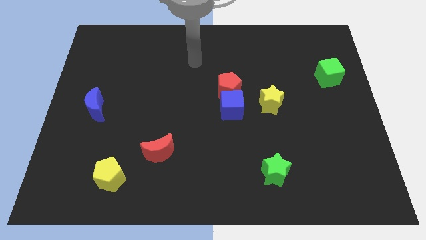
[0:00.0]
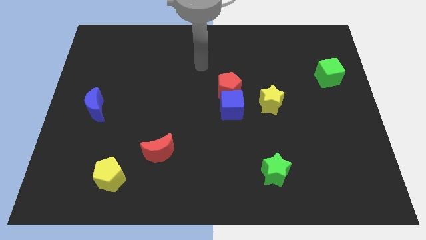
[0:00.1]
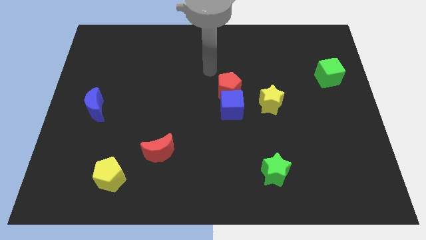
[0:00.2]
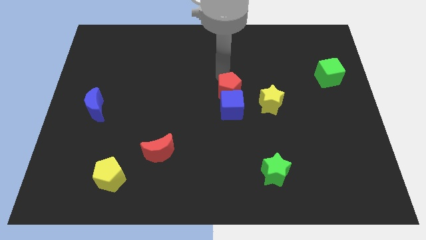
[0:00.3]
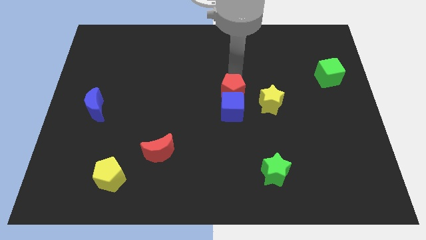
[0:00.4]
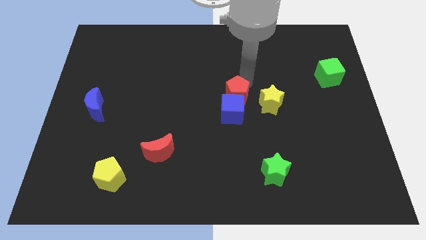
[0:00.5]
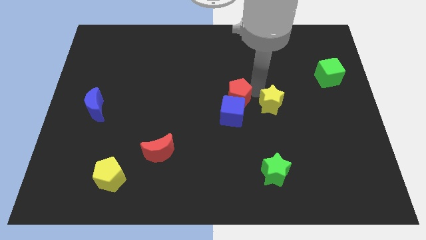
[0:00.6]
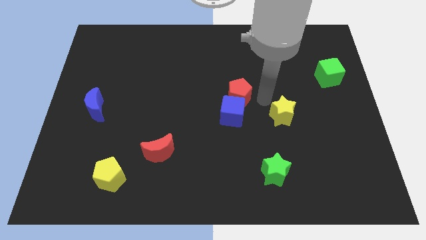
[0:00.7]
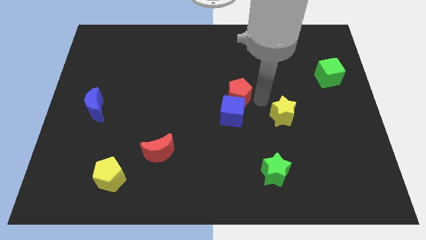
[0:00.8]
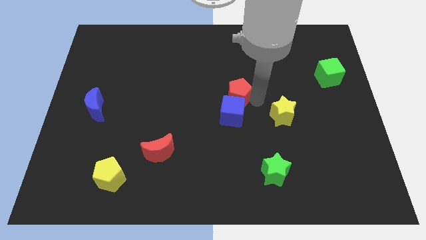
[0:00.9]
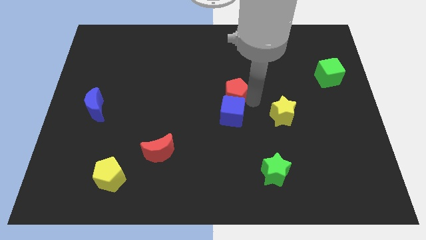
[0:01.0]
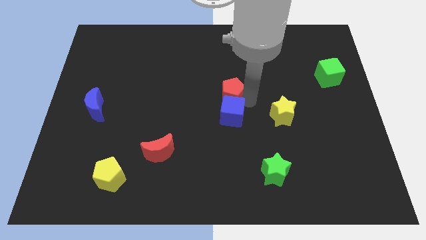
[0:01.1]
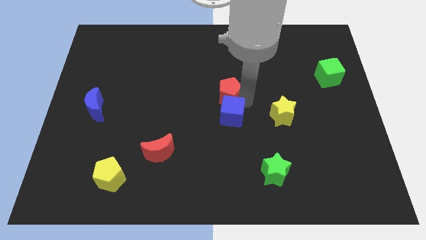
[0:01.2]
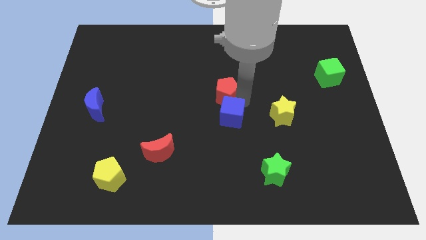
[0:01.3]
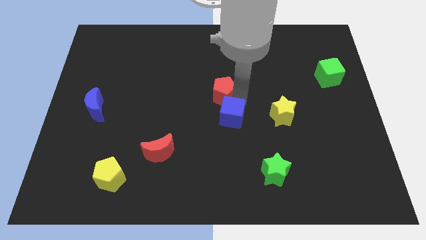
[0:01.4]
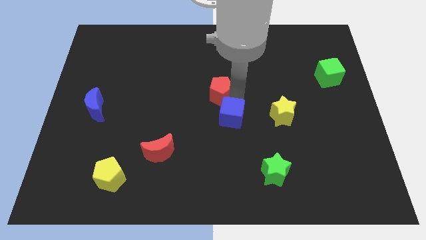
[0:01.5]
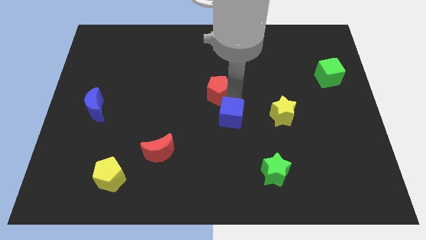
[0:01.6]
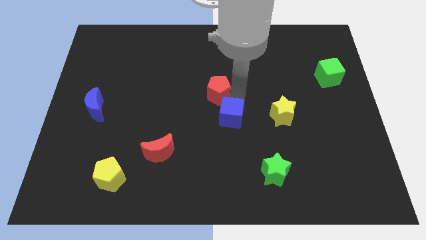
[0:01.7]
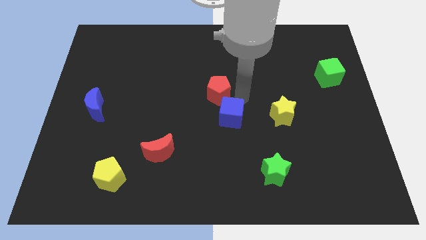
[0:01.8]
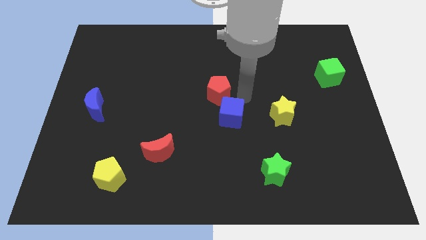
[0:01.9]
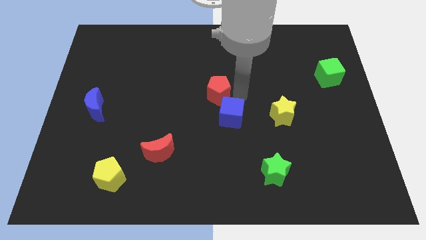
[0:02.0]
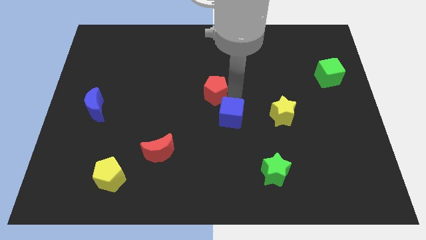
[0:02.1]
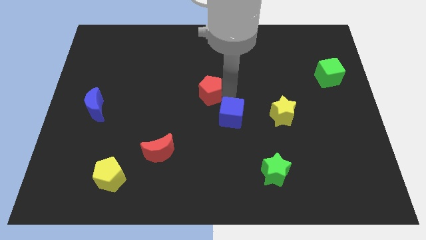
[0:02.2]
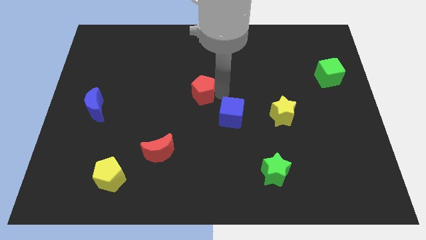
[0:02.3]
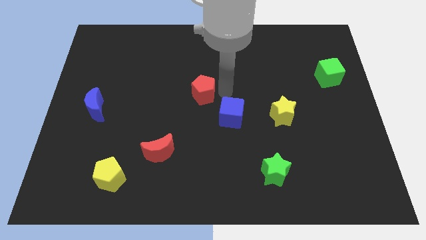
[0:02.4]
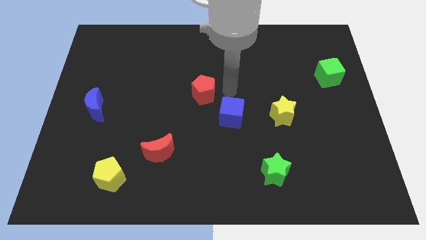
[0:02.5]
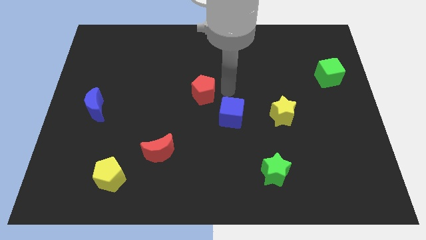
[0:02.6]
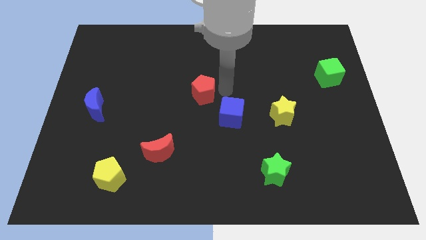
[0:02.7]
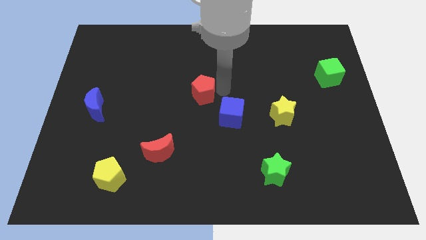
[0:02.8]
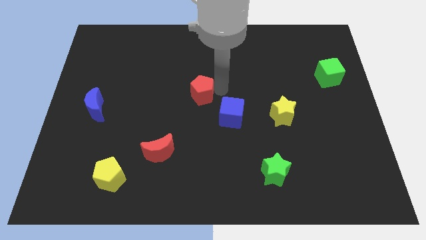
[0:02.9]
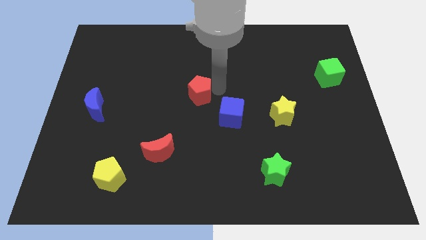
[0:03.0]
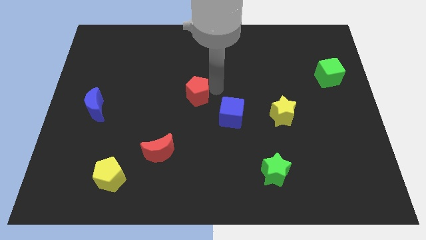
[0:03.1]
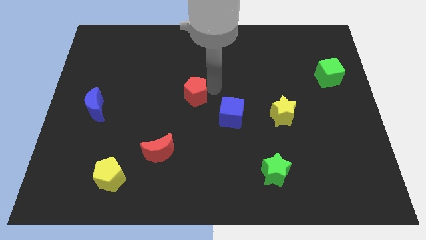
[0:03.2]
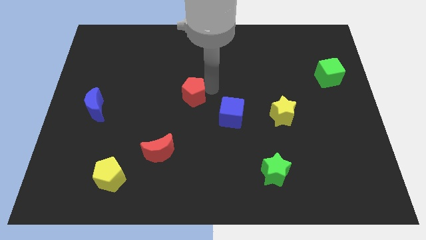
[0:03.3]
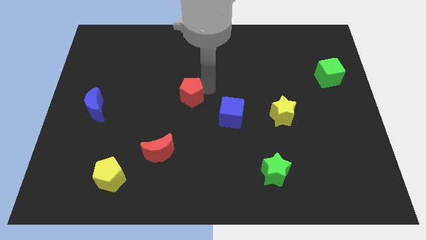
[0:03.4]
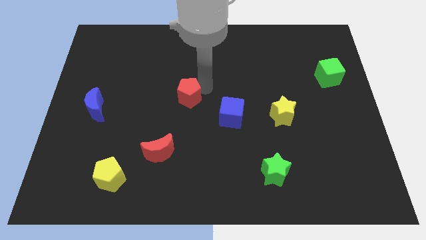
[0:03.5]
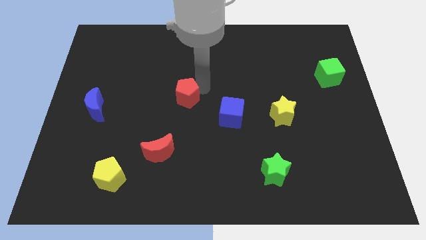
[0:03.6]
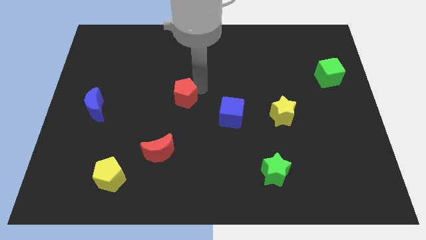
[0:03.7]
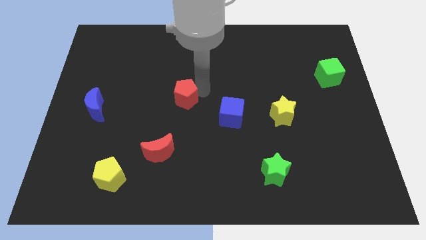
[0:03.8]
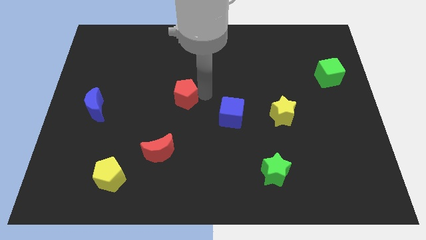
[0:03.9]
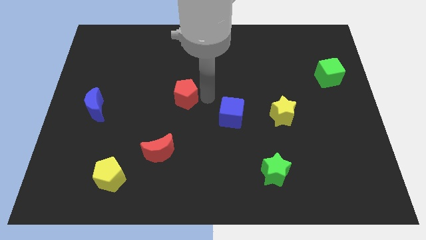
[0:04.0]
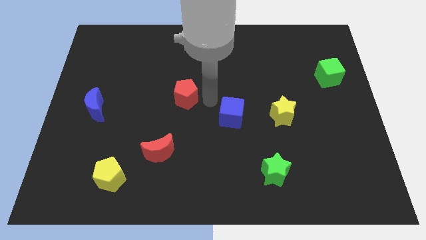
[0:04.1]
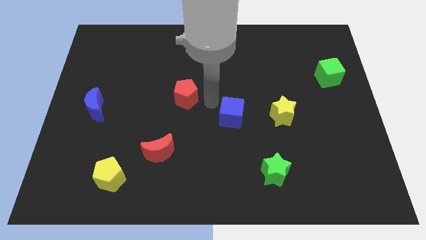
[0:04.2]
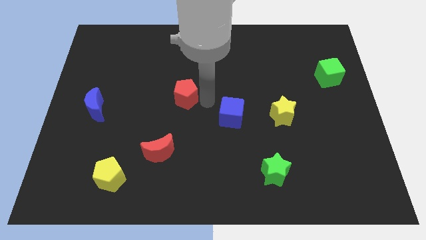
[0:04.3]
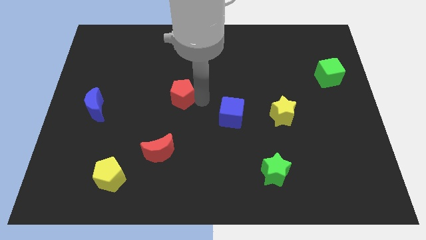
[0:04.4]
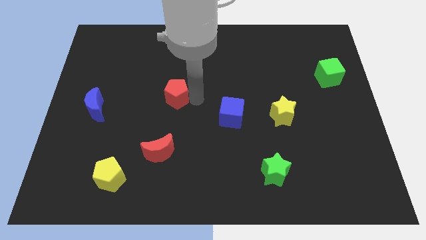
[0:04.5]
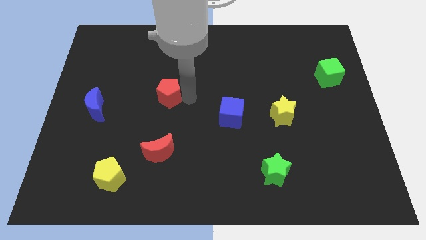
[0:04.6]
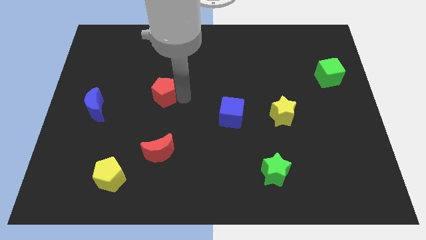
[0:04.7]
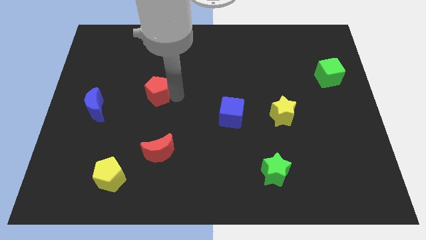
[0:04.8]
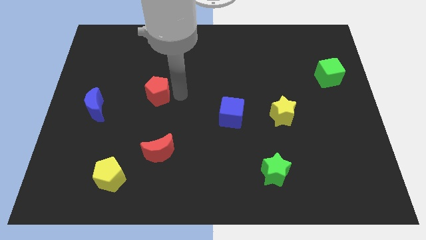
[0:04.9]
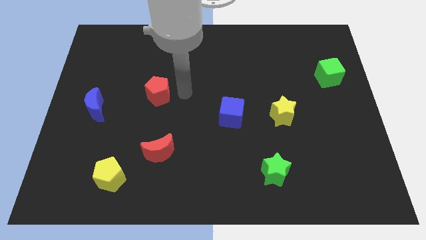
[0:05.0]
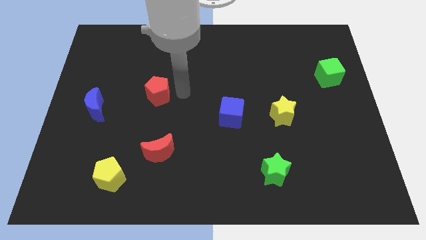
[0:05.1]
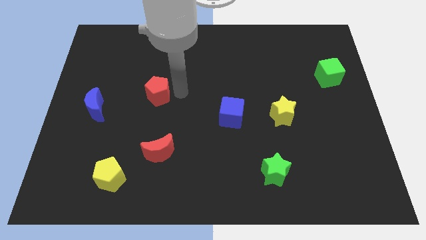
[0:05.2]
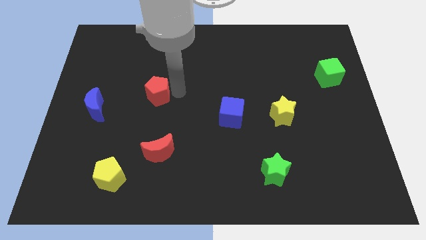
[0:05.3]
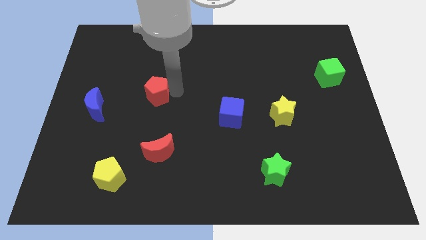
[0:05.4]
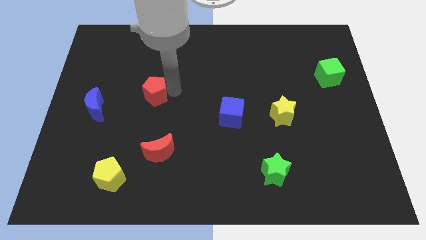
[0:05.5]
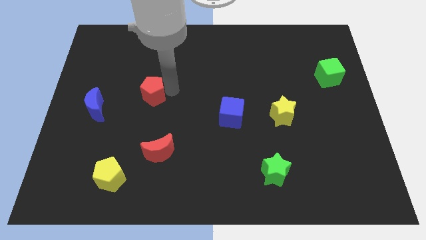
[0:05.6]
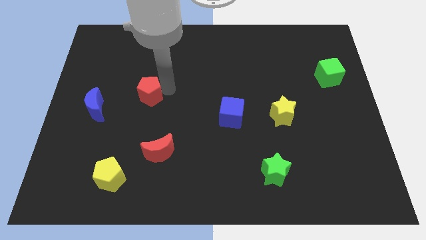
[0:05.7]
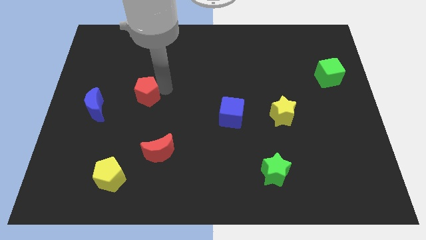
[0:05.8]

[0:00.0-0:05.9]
slide the red pentagon to the left

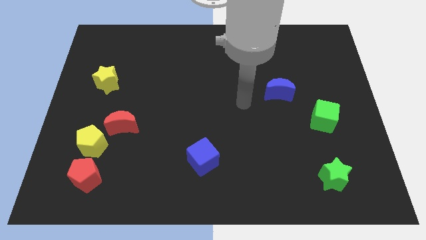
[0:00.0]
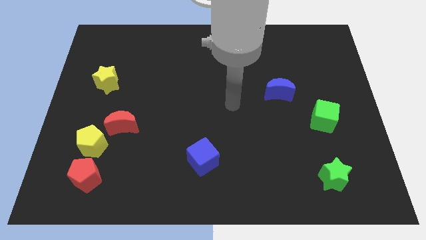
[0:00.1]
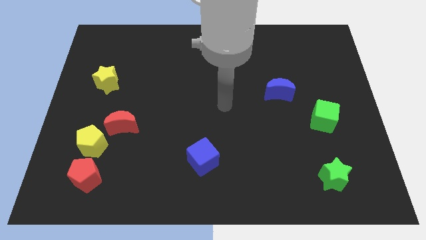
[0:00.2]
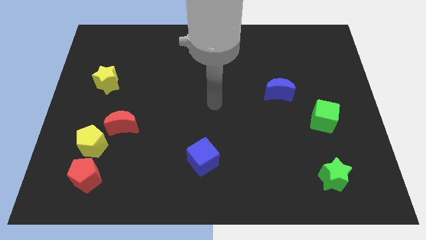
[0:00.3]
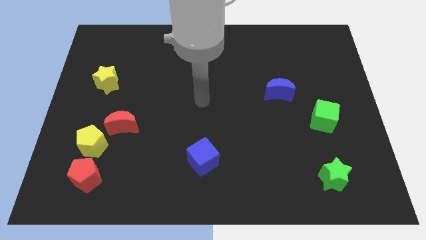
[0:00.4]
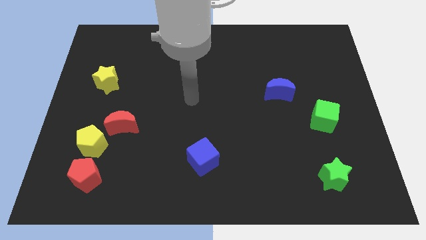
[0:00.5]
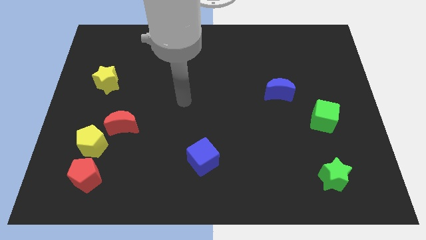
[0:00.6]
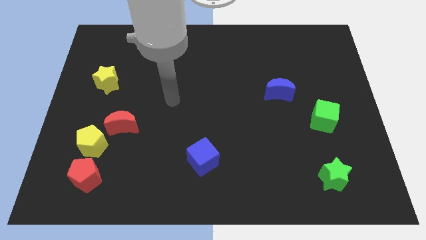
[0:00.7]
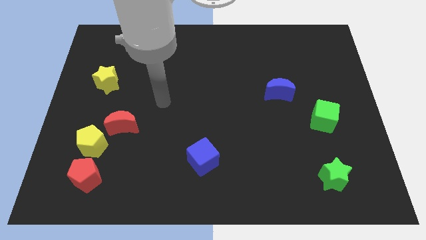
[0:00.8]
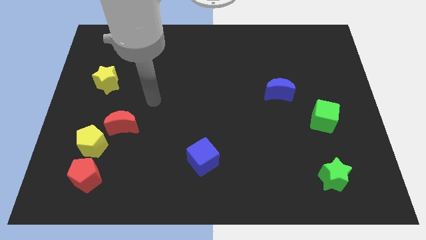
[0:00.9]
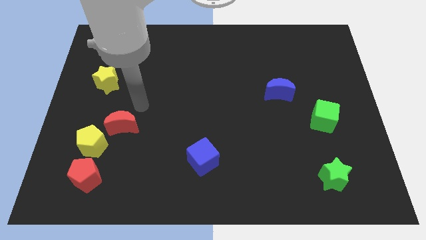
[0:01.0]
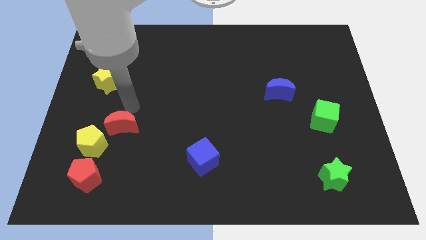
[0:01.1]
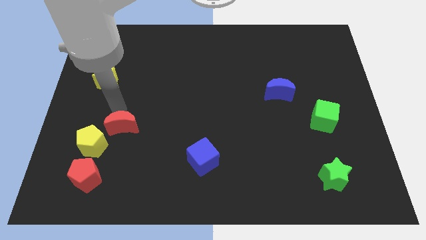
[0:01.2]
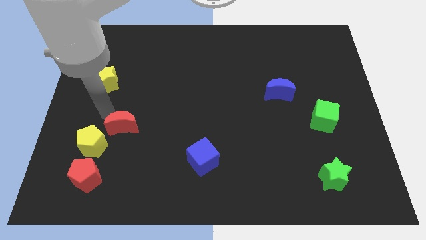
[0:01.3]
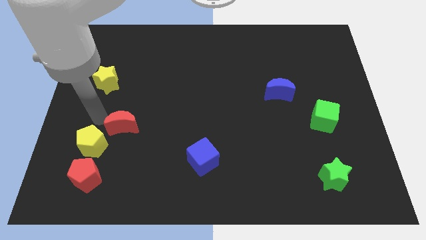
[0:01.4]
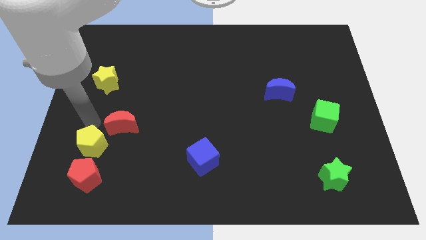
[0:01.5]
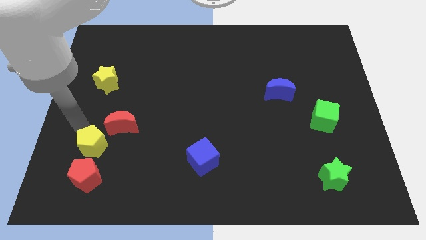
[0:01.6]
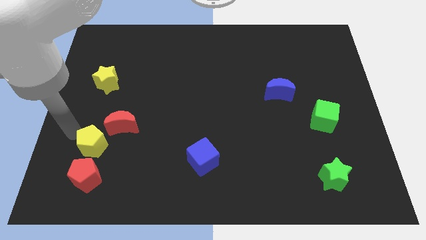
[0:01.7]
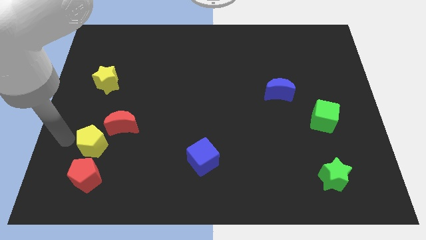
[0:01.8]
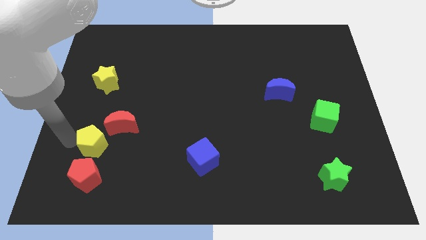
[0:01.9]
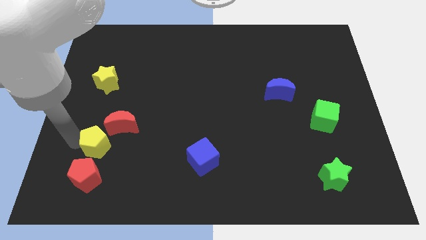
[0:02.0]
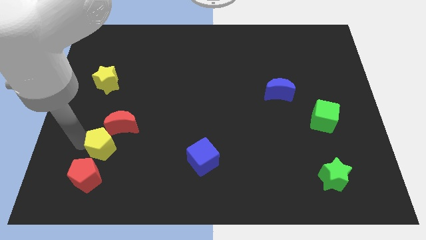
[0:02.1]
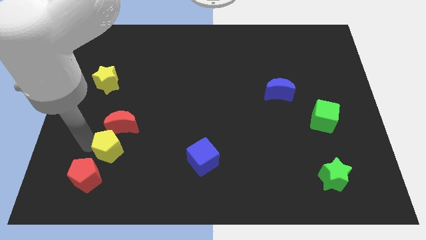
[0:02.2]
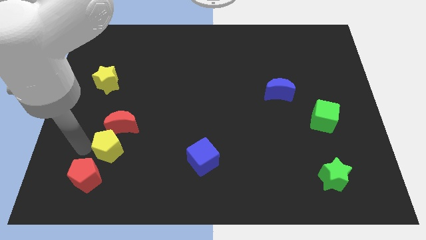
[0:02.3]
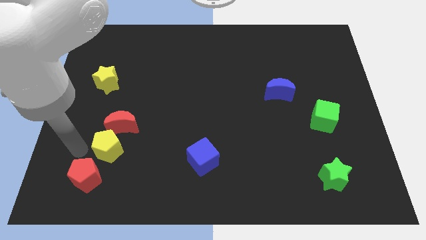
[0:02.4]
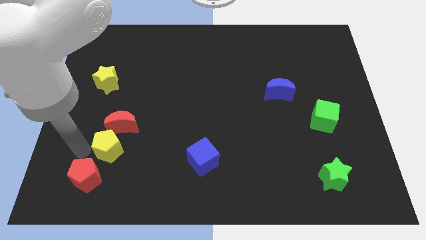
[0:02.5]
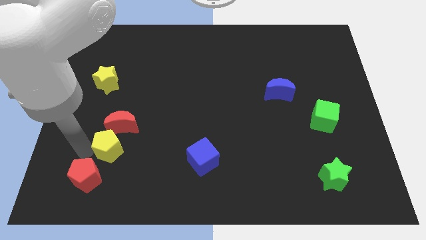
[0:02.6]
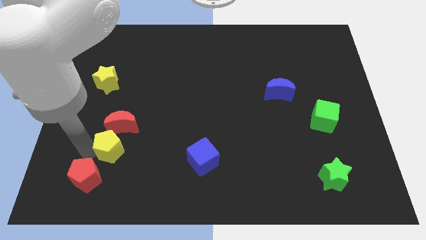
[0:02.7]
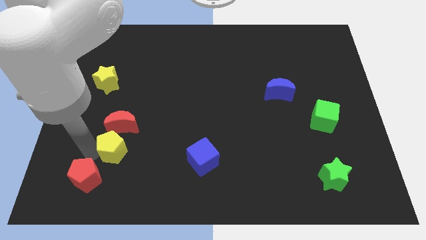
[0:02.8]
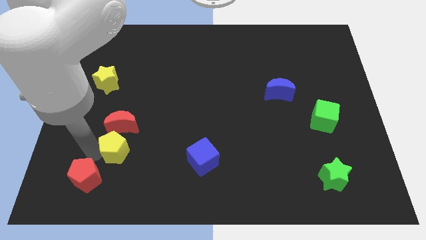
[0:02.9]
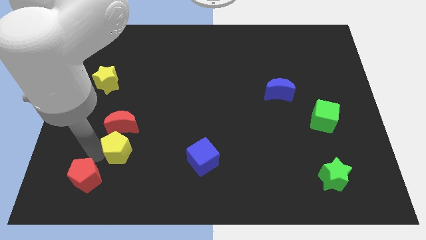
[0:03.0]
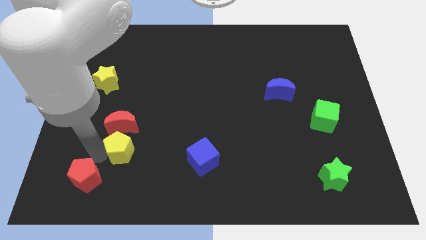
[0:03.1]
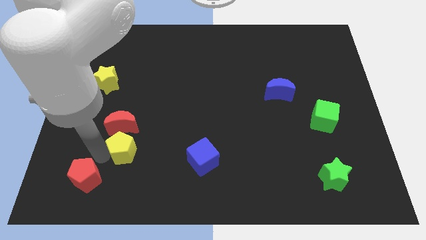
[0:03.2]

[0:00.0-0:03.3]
move the yellow pentagon a little to the right
